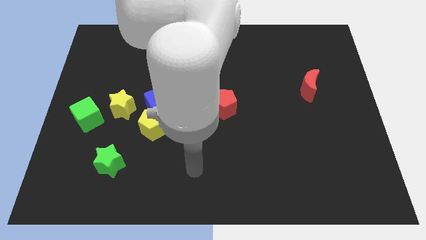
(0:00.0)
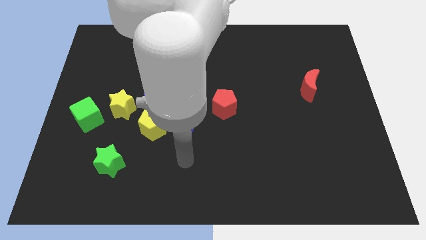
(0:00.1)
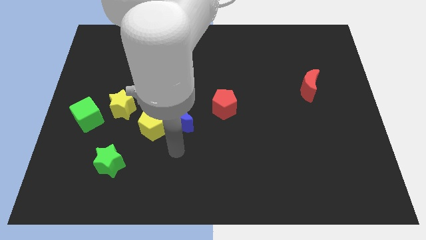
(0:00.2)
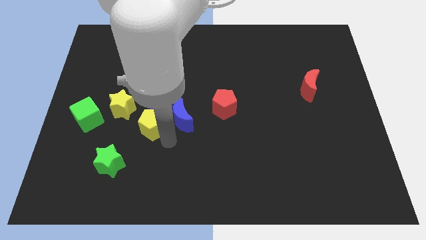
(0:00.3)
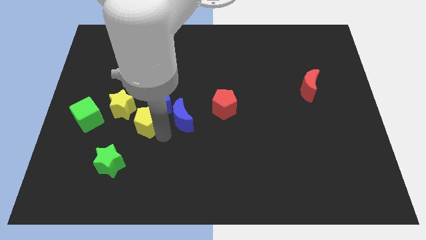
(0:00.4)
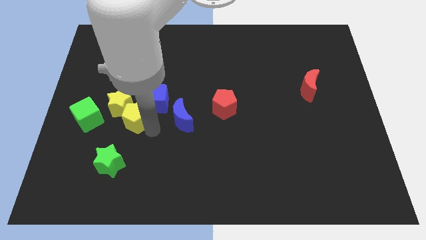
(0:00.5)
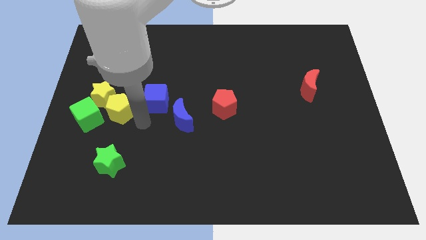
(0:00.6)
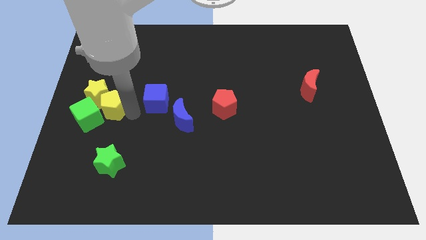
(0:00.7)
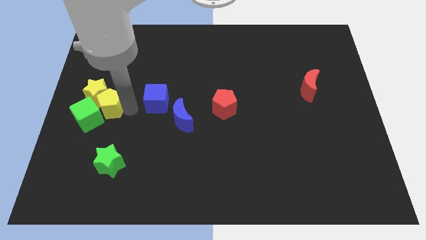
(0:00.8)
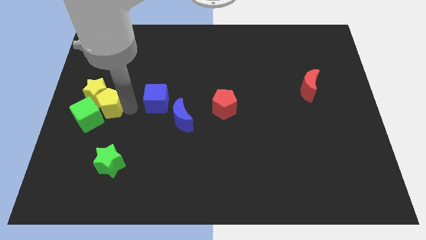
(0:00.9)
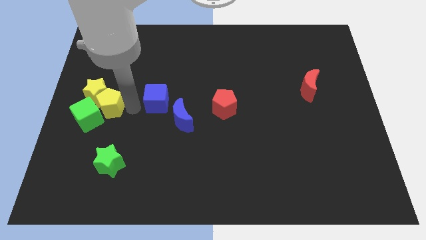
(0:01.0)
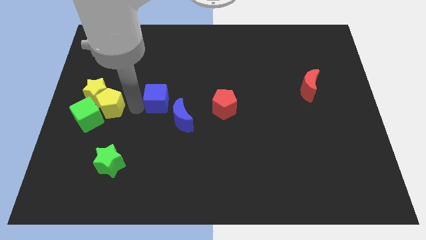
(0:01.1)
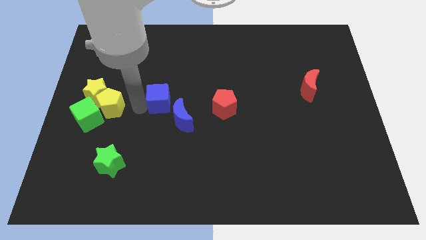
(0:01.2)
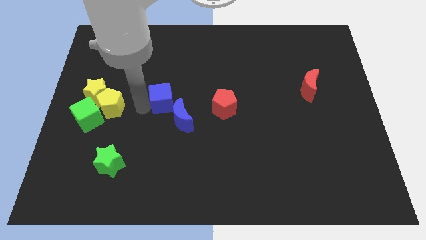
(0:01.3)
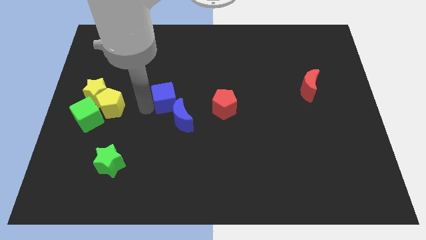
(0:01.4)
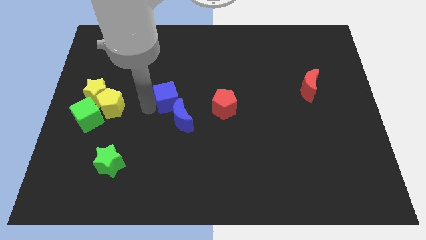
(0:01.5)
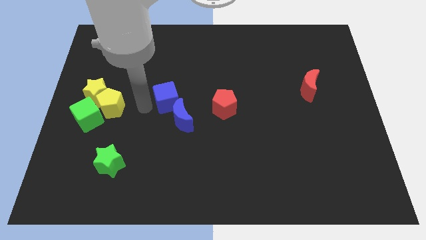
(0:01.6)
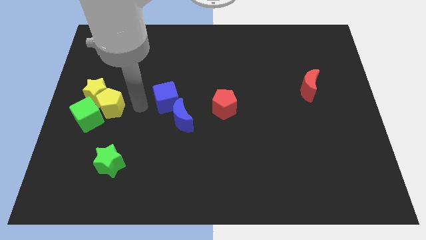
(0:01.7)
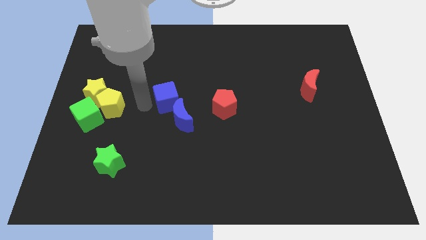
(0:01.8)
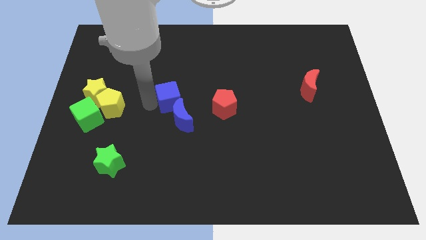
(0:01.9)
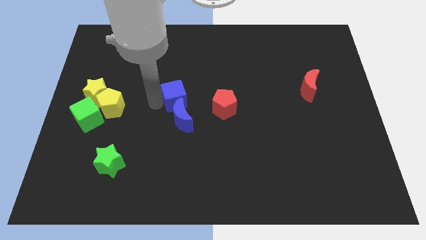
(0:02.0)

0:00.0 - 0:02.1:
separate the blue cube from the yellow pentagon, blue moon, and yellow star

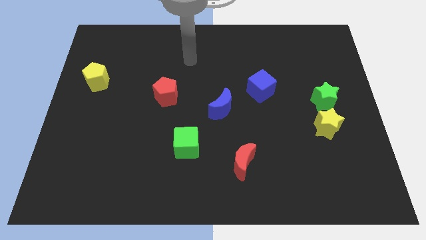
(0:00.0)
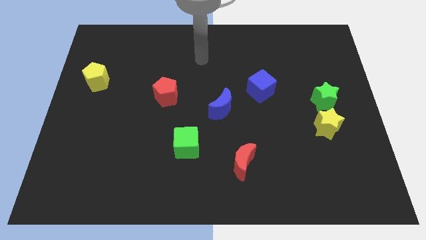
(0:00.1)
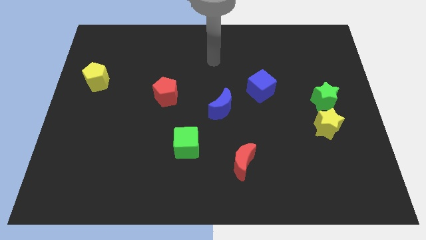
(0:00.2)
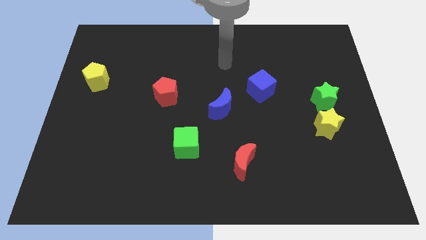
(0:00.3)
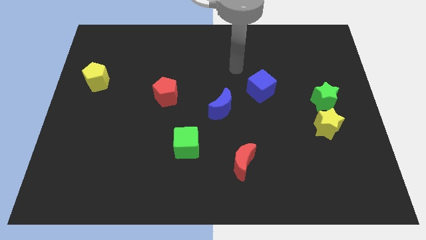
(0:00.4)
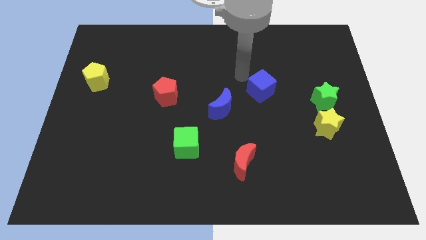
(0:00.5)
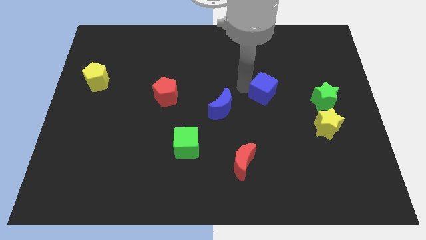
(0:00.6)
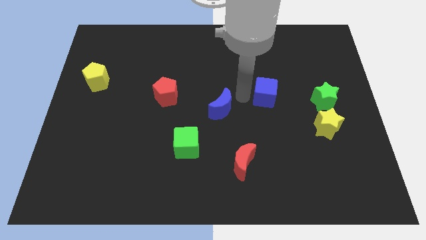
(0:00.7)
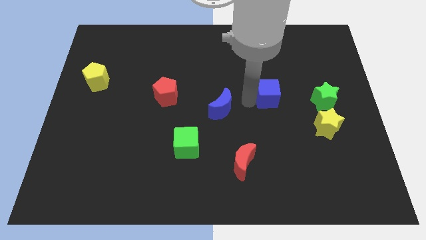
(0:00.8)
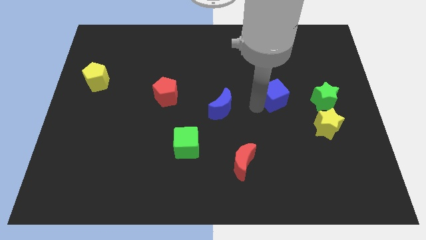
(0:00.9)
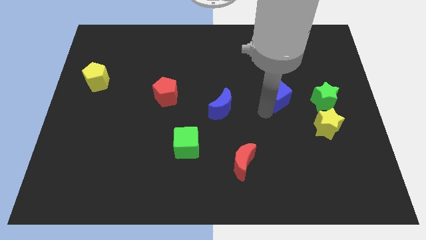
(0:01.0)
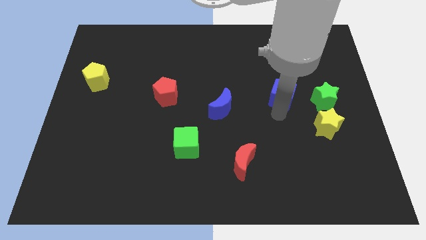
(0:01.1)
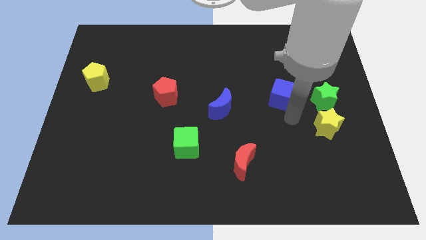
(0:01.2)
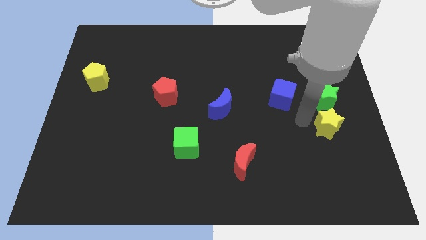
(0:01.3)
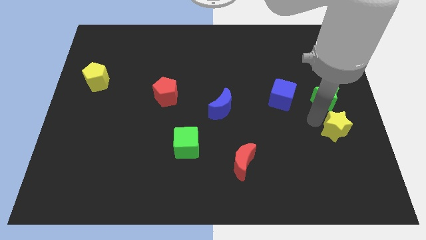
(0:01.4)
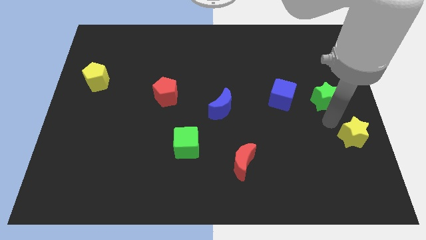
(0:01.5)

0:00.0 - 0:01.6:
separate the green star from the yellow star

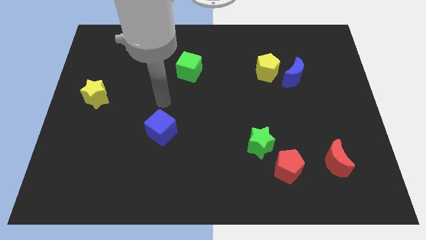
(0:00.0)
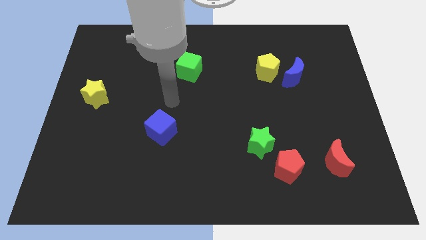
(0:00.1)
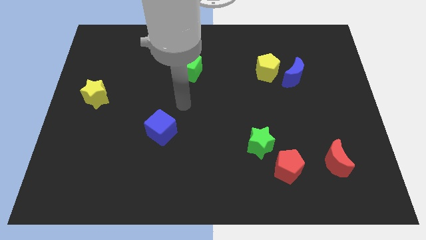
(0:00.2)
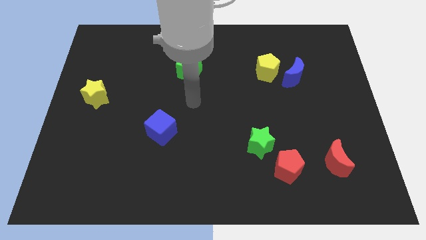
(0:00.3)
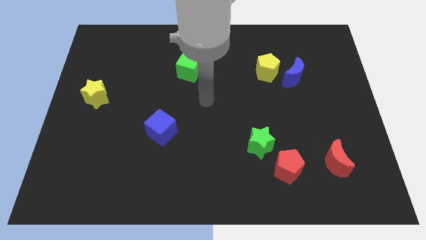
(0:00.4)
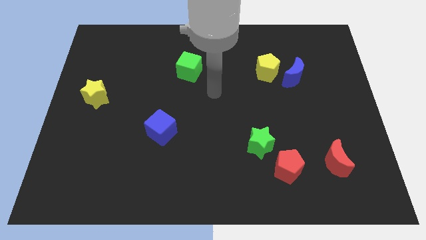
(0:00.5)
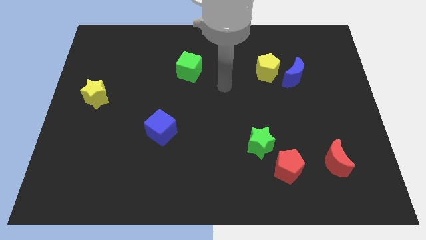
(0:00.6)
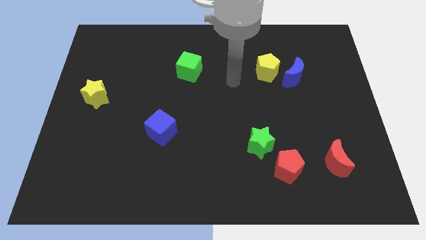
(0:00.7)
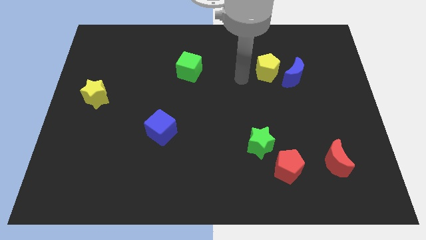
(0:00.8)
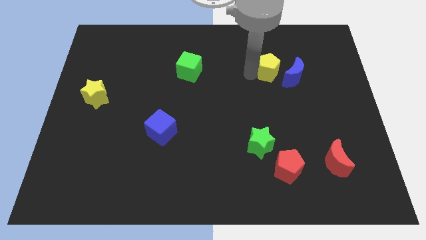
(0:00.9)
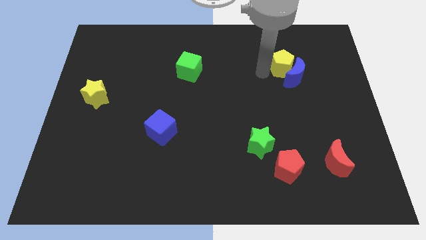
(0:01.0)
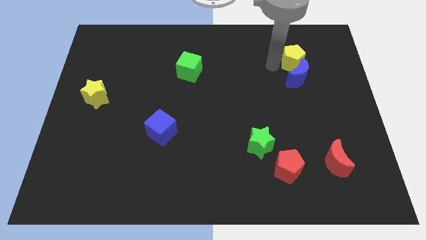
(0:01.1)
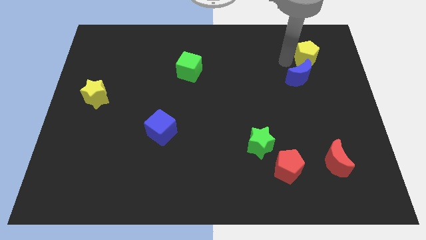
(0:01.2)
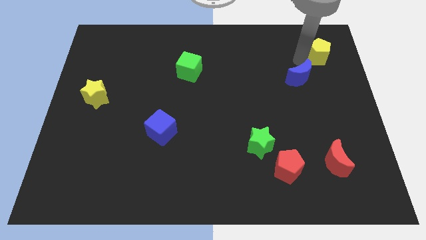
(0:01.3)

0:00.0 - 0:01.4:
move the blue moon away from the yellow pentagon

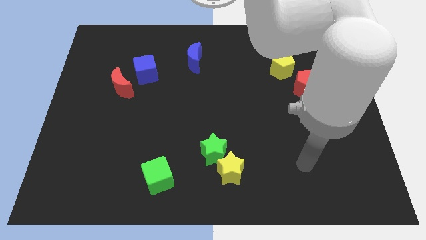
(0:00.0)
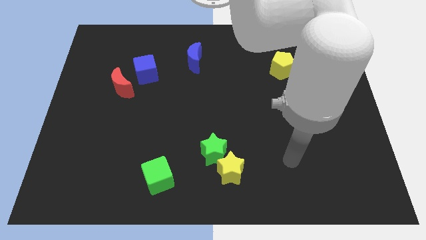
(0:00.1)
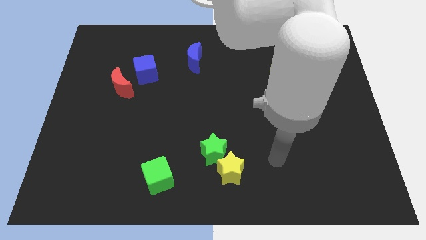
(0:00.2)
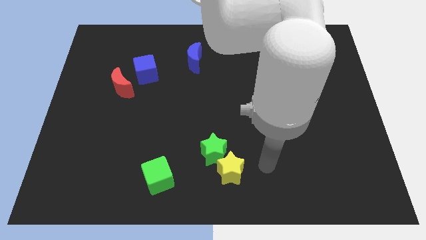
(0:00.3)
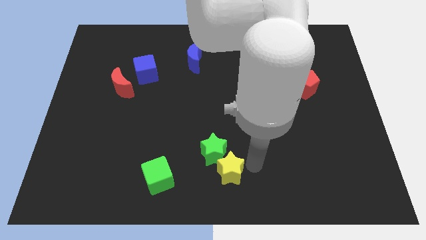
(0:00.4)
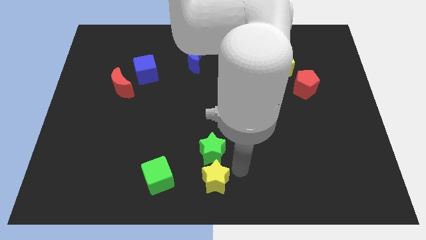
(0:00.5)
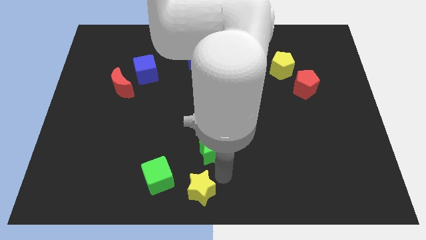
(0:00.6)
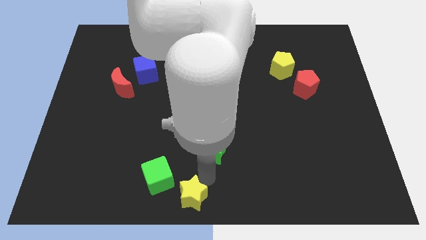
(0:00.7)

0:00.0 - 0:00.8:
pull the green star apart from the yellow star

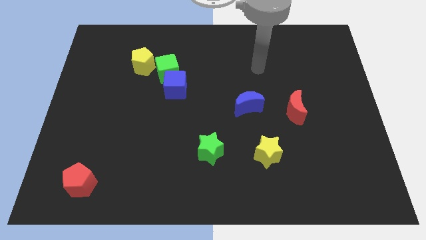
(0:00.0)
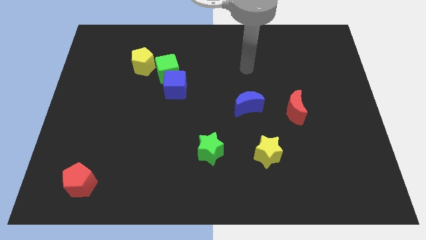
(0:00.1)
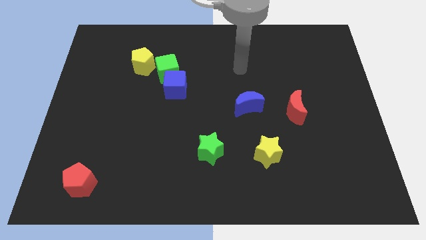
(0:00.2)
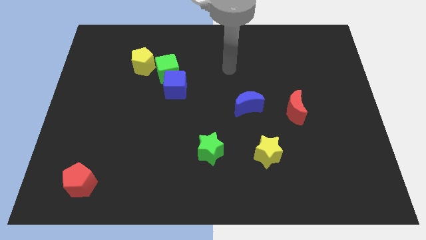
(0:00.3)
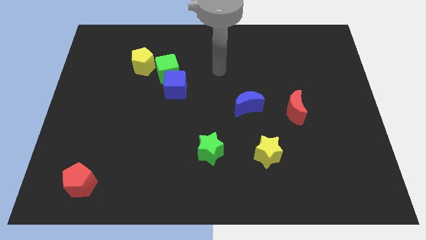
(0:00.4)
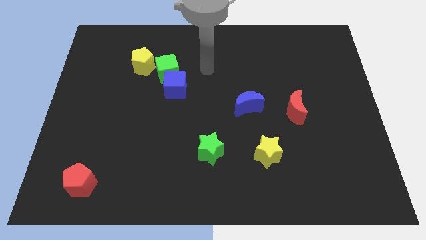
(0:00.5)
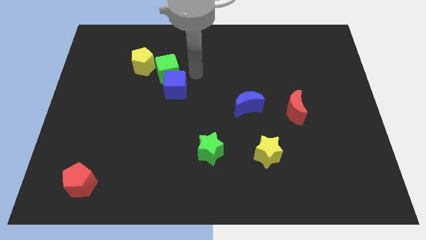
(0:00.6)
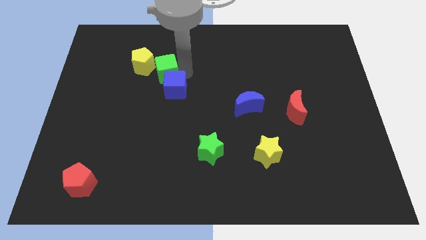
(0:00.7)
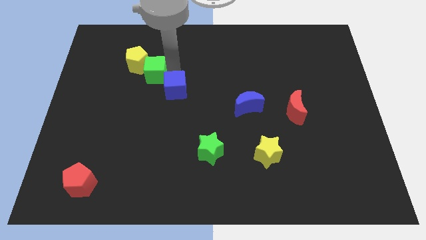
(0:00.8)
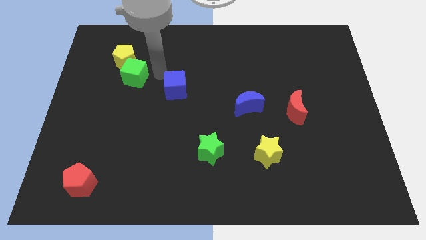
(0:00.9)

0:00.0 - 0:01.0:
pull the blue cube apart from the green cube

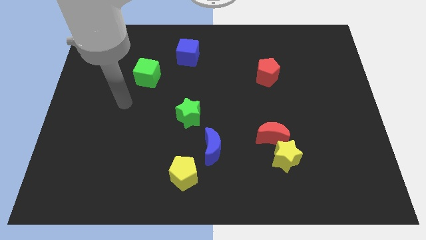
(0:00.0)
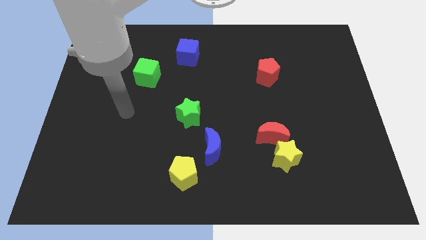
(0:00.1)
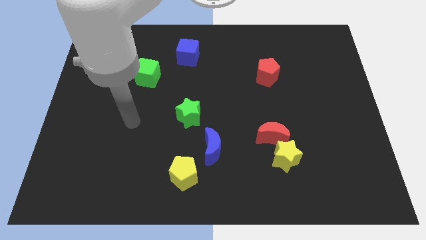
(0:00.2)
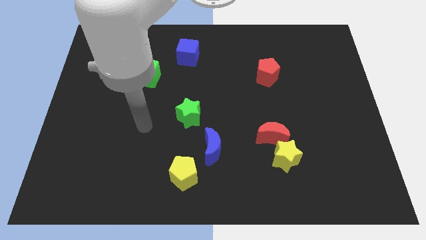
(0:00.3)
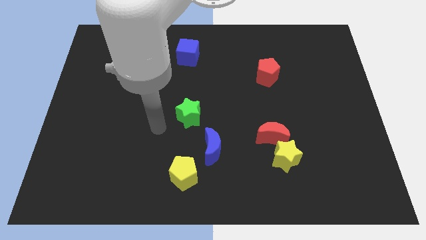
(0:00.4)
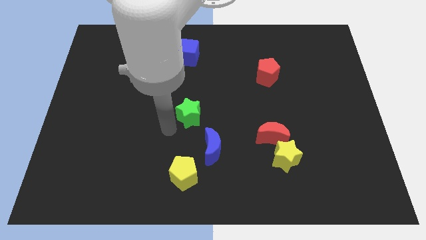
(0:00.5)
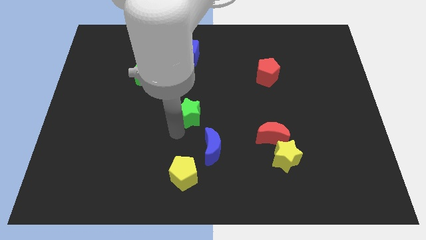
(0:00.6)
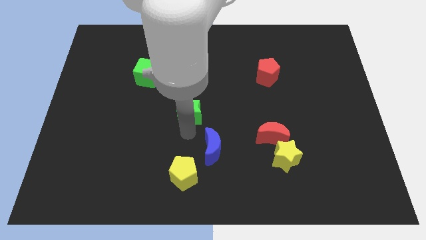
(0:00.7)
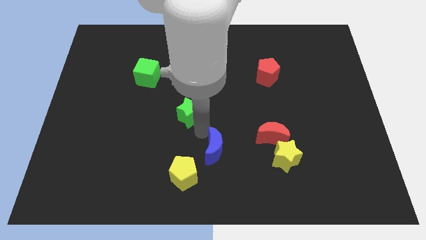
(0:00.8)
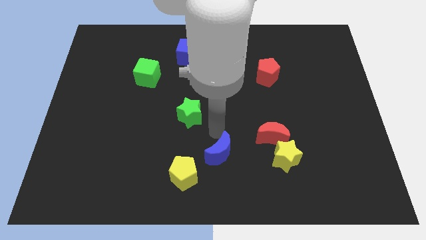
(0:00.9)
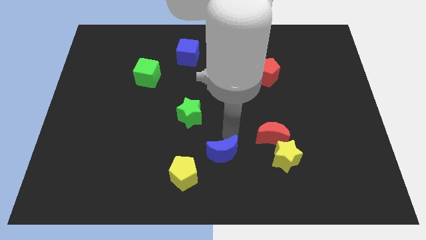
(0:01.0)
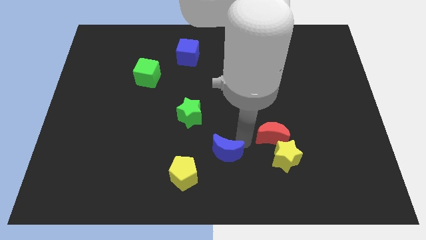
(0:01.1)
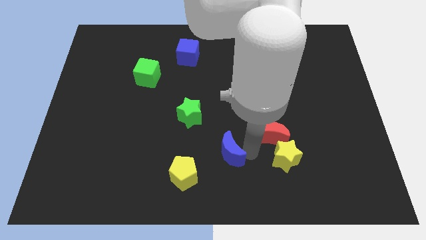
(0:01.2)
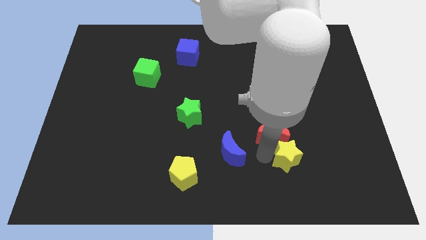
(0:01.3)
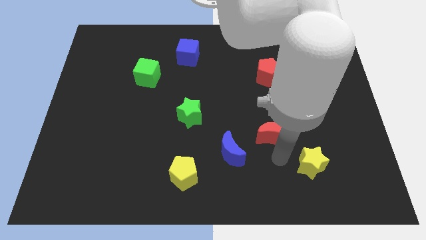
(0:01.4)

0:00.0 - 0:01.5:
move the red moon away from the yellow star

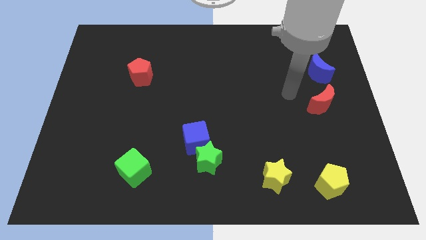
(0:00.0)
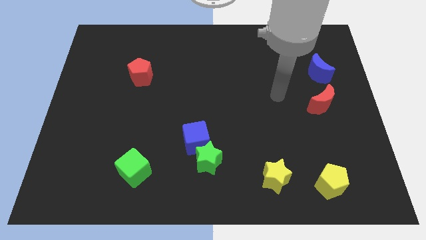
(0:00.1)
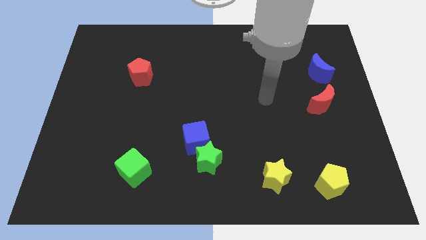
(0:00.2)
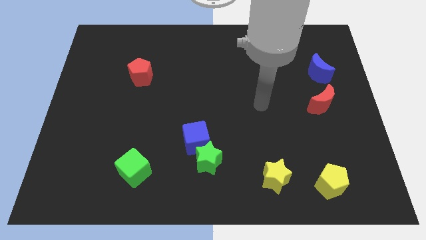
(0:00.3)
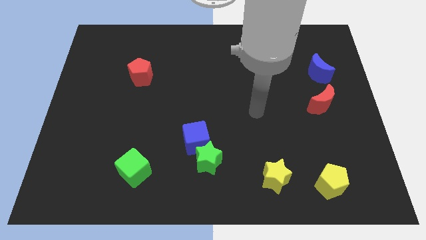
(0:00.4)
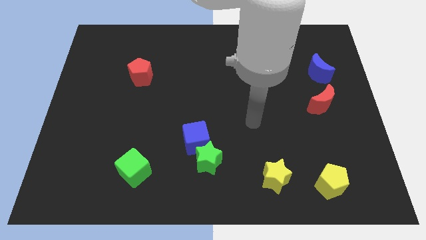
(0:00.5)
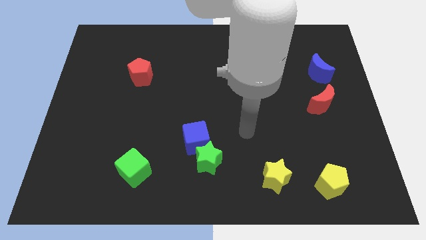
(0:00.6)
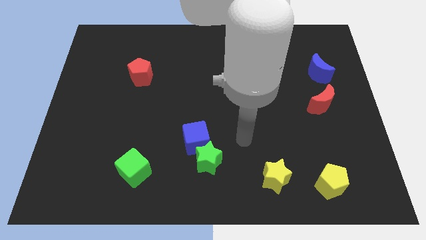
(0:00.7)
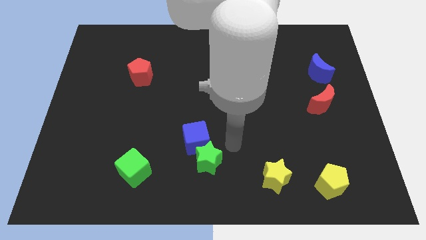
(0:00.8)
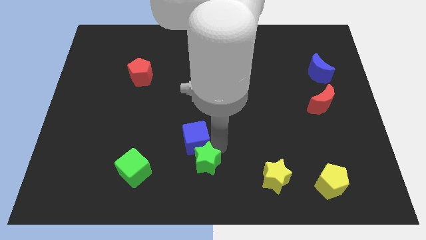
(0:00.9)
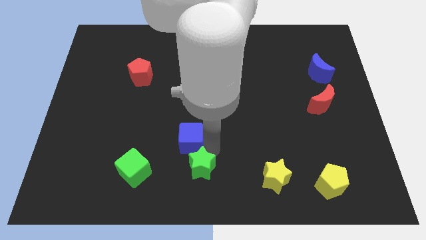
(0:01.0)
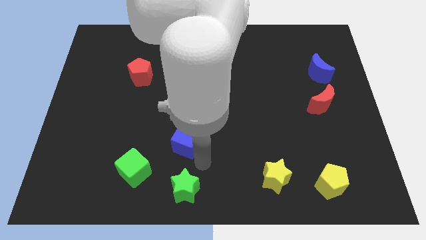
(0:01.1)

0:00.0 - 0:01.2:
pull the blue cube apart from the green star
